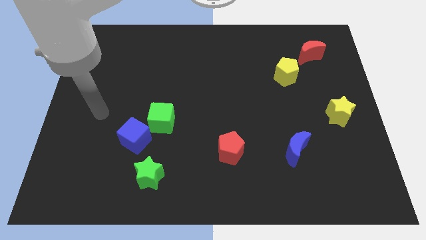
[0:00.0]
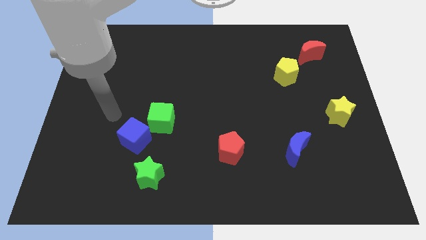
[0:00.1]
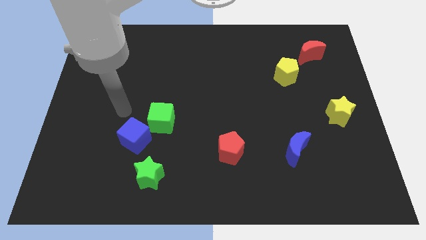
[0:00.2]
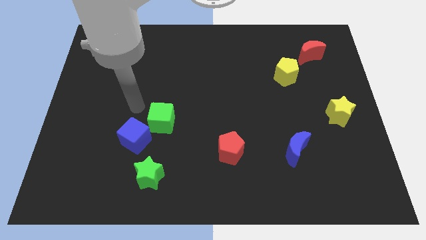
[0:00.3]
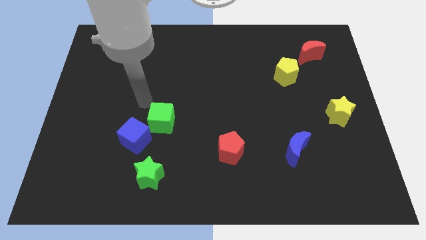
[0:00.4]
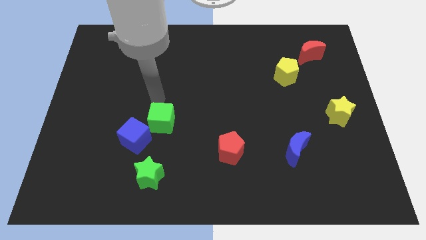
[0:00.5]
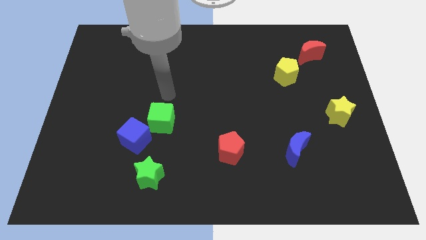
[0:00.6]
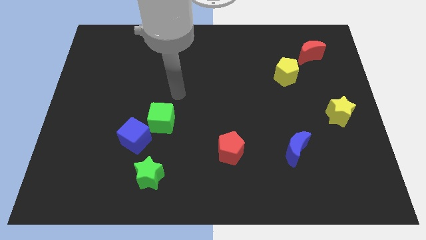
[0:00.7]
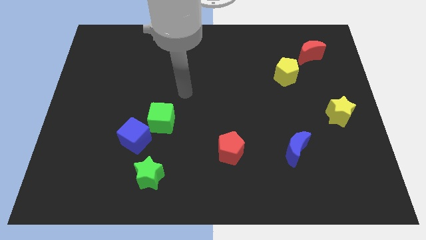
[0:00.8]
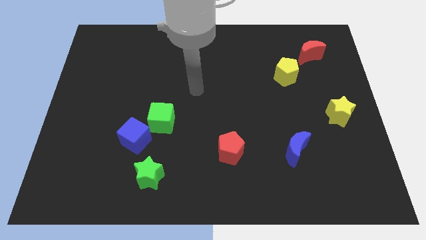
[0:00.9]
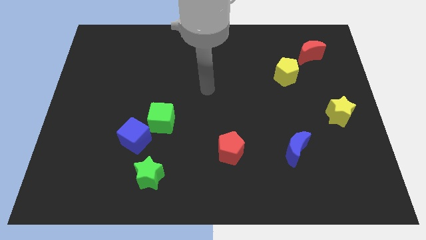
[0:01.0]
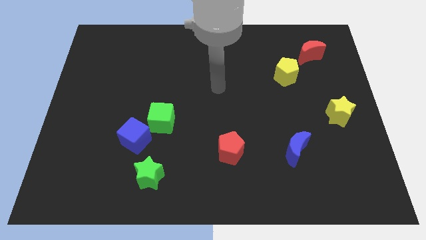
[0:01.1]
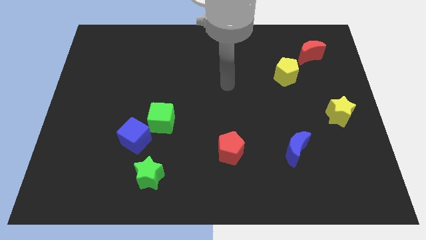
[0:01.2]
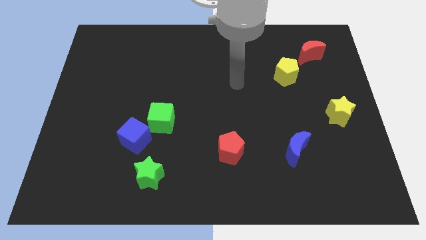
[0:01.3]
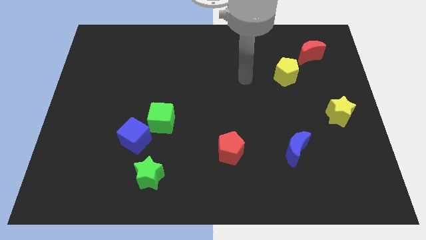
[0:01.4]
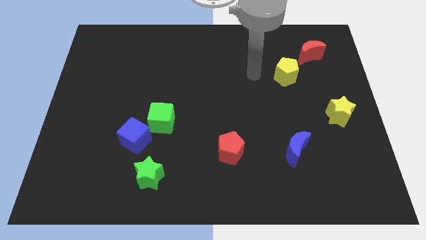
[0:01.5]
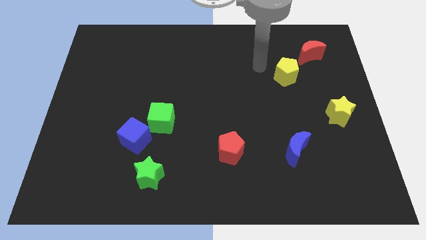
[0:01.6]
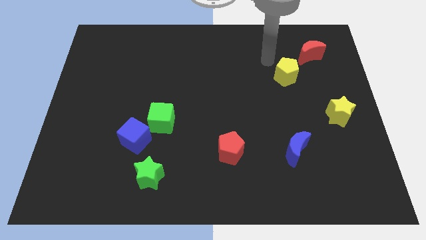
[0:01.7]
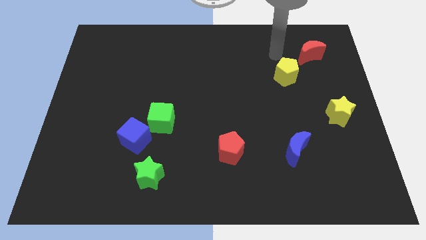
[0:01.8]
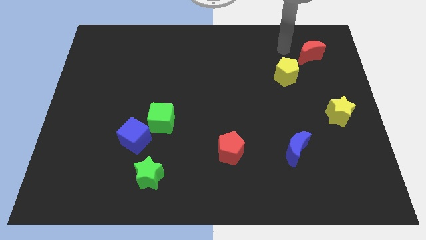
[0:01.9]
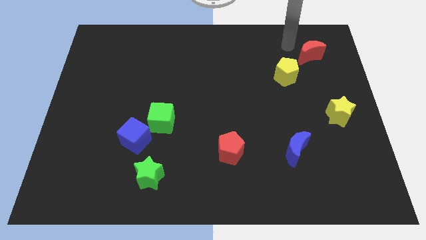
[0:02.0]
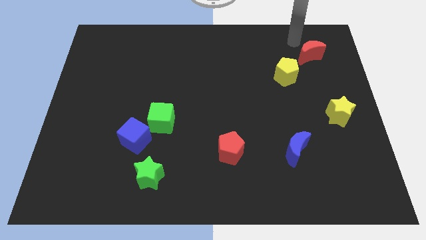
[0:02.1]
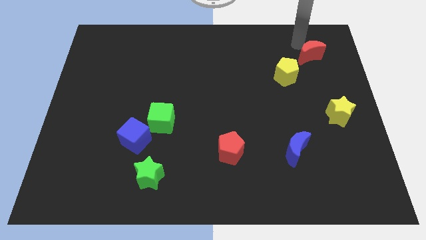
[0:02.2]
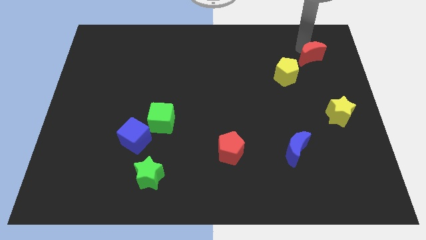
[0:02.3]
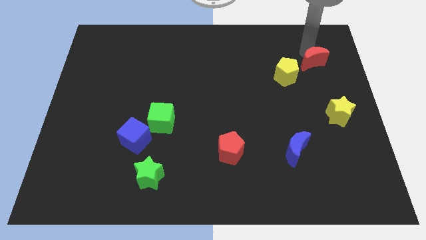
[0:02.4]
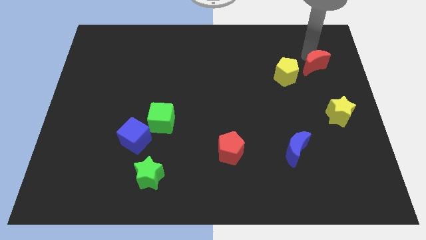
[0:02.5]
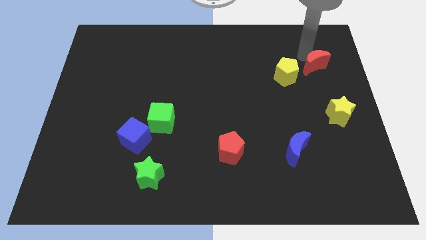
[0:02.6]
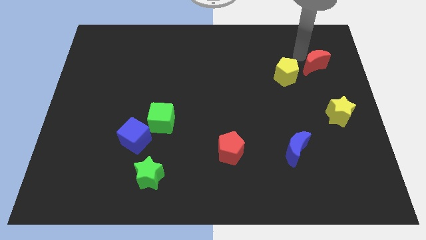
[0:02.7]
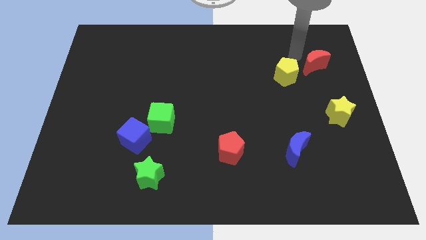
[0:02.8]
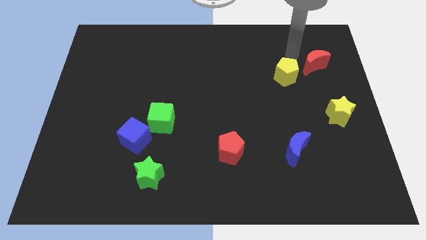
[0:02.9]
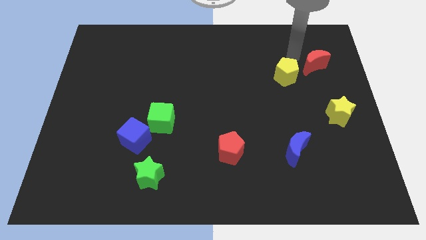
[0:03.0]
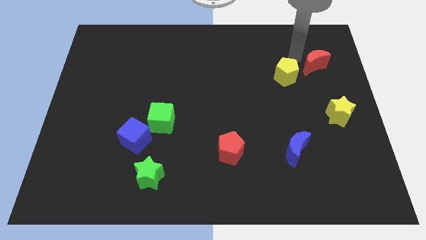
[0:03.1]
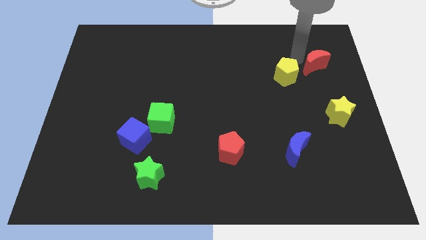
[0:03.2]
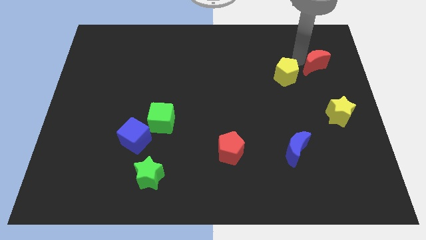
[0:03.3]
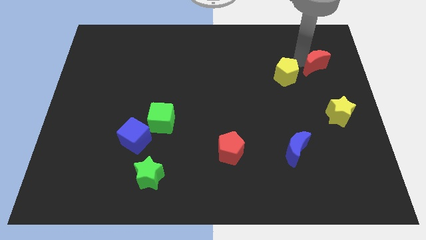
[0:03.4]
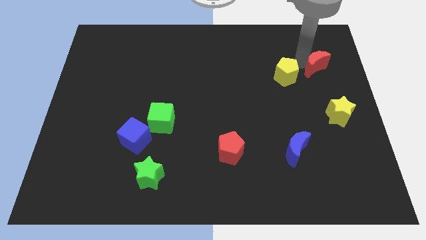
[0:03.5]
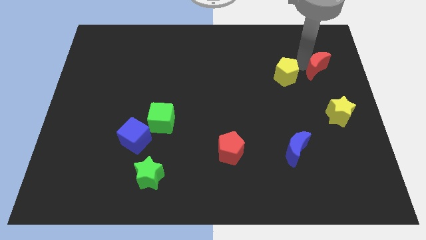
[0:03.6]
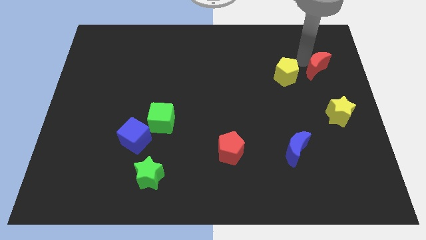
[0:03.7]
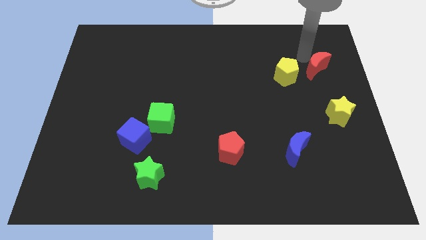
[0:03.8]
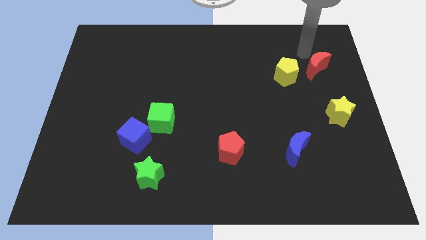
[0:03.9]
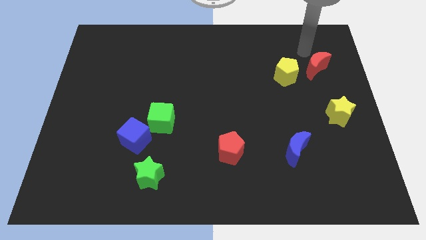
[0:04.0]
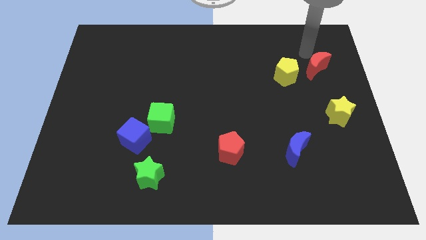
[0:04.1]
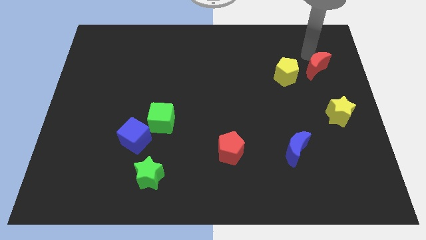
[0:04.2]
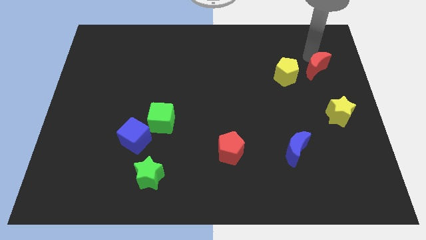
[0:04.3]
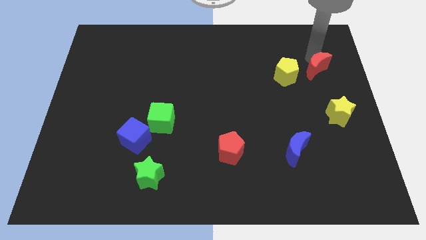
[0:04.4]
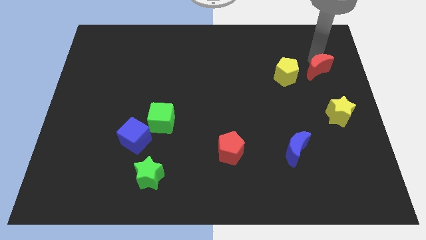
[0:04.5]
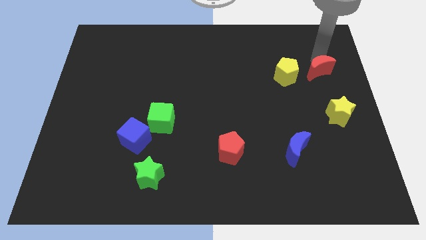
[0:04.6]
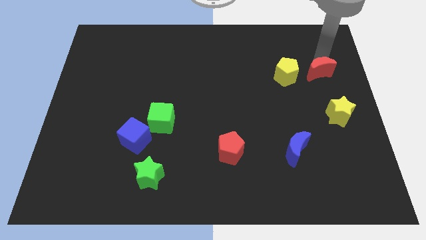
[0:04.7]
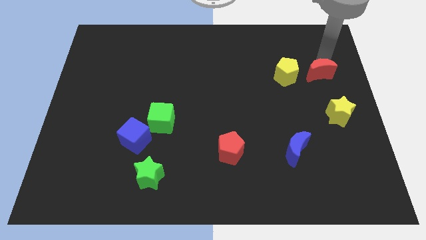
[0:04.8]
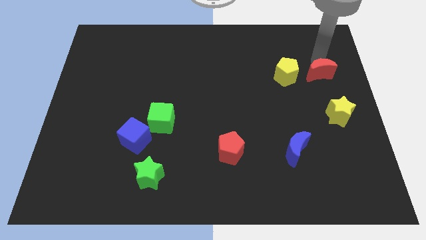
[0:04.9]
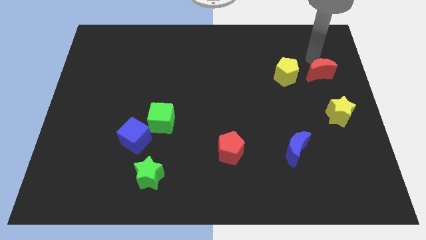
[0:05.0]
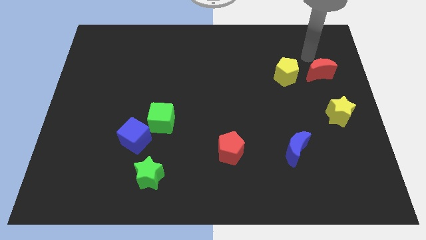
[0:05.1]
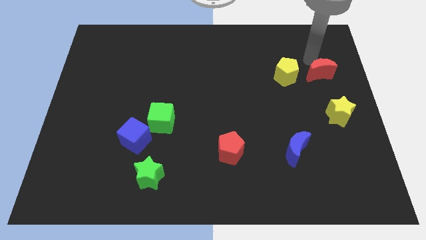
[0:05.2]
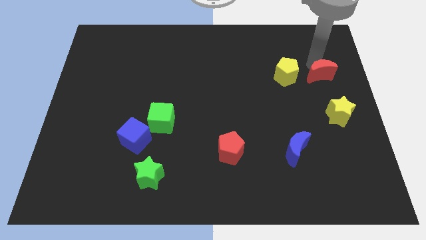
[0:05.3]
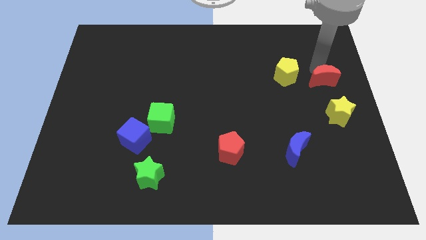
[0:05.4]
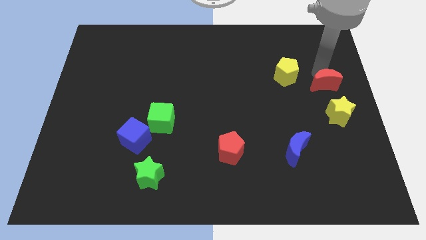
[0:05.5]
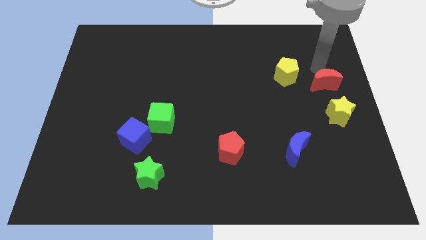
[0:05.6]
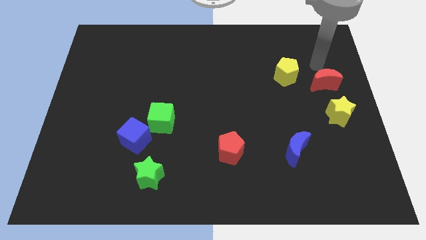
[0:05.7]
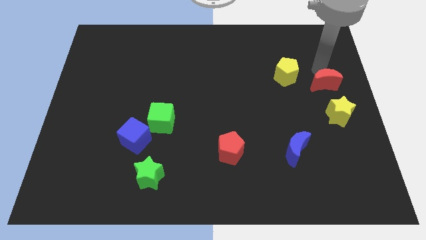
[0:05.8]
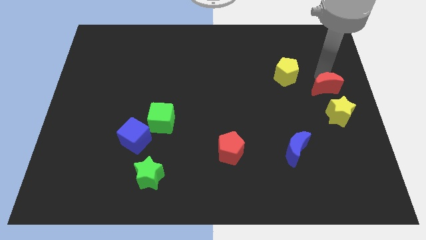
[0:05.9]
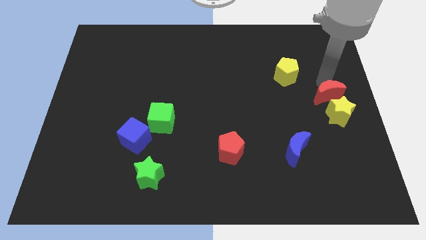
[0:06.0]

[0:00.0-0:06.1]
put the red moon towards the yellow star
